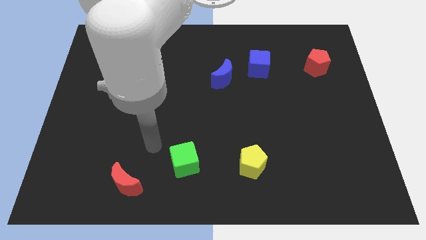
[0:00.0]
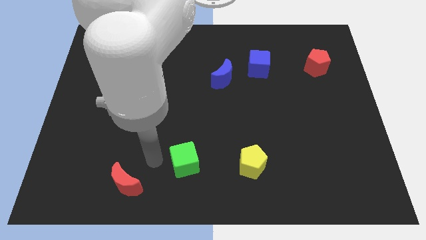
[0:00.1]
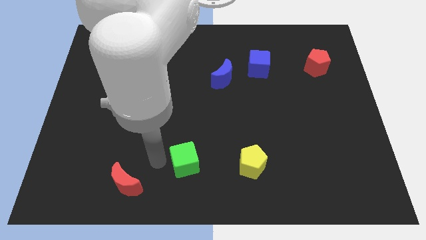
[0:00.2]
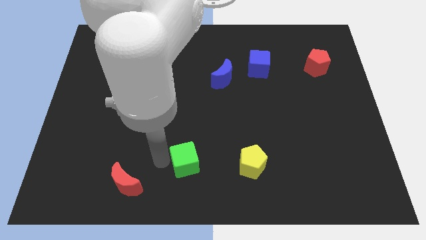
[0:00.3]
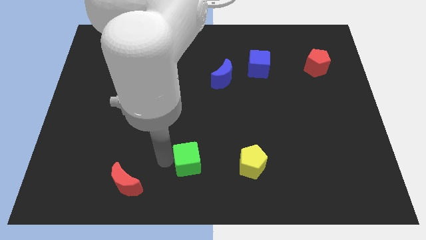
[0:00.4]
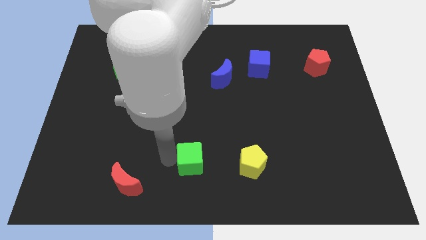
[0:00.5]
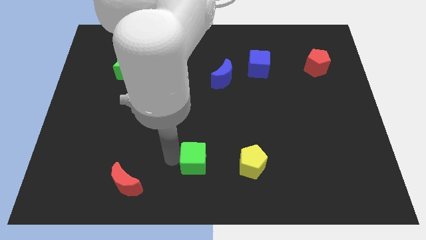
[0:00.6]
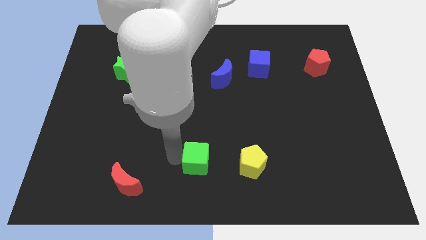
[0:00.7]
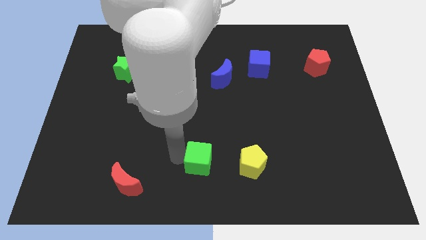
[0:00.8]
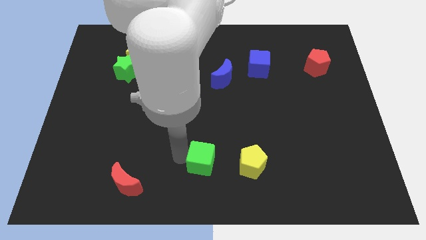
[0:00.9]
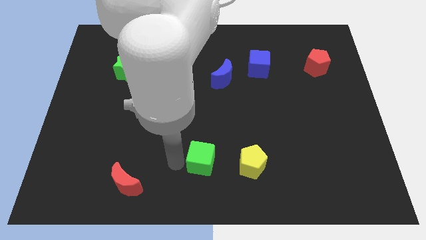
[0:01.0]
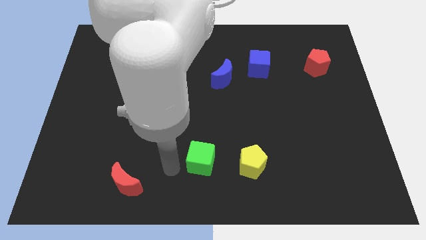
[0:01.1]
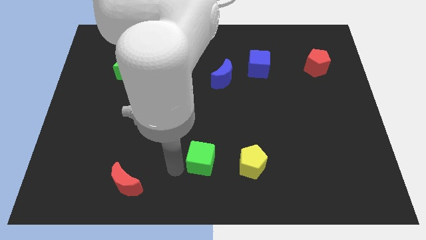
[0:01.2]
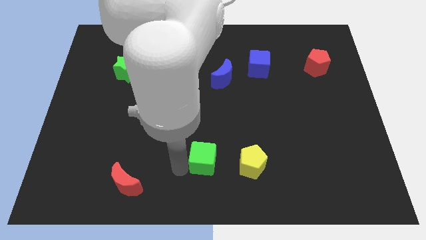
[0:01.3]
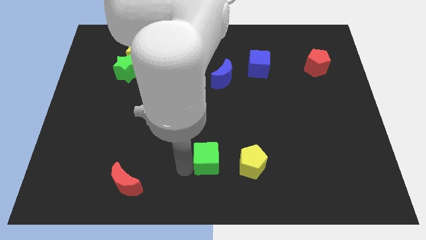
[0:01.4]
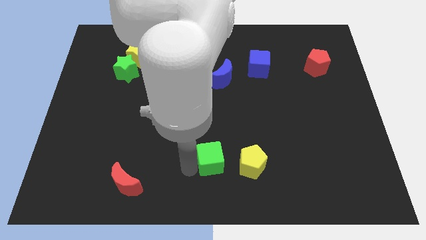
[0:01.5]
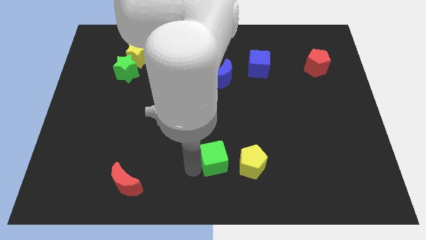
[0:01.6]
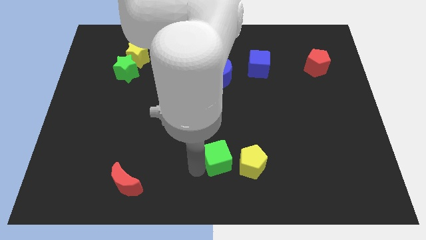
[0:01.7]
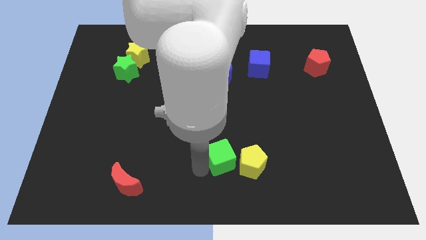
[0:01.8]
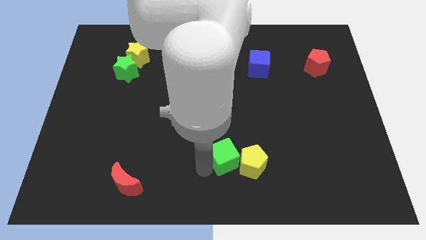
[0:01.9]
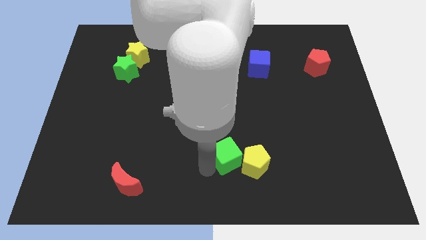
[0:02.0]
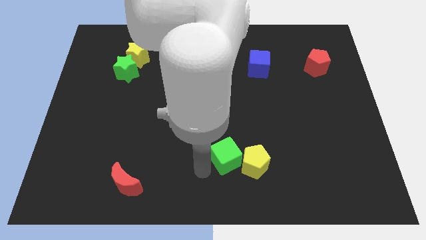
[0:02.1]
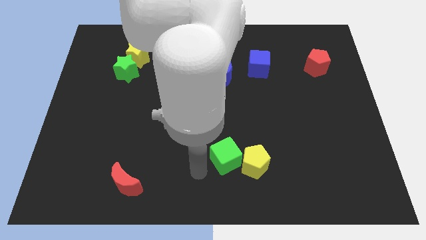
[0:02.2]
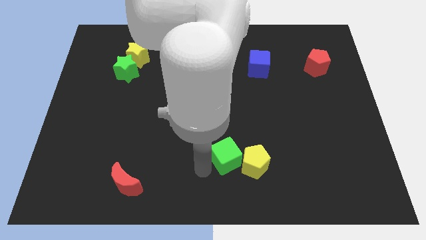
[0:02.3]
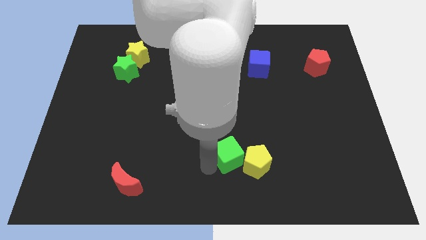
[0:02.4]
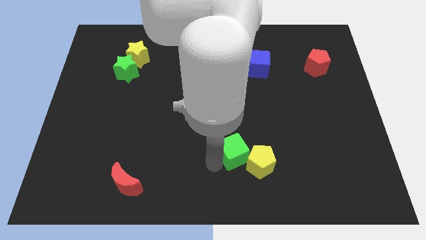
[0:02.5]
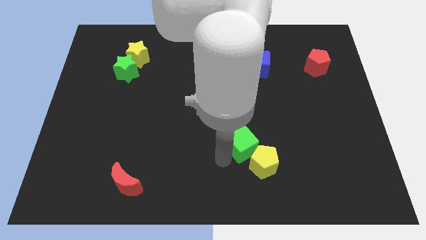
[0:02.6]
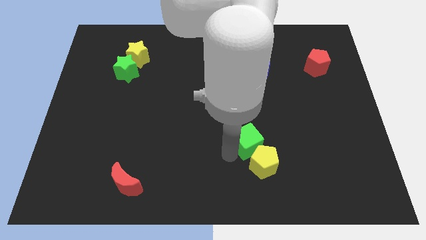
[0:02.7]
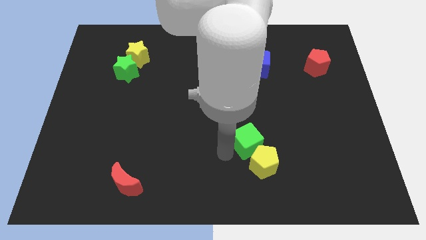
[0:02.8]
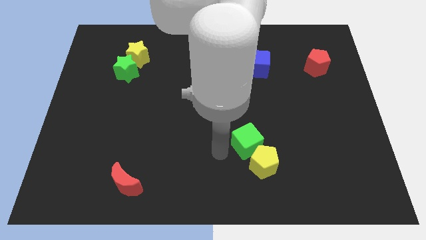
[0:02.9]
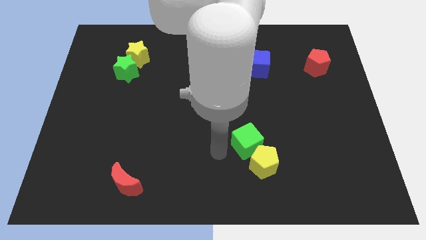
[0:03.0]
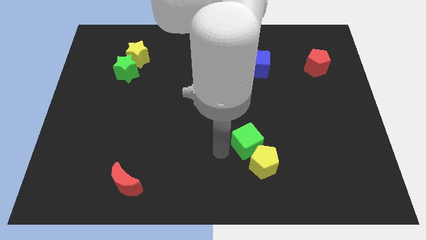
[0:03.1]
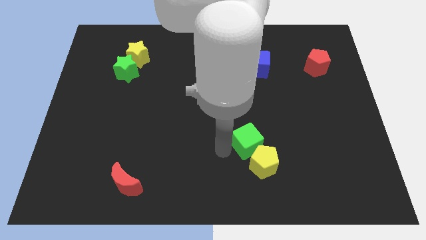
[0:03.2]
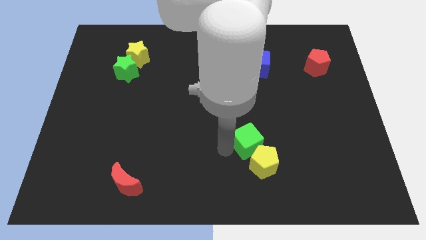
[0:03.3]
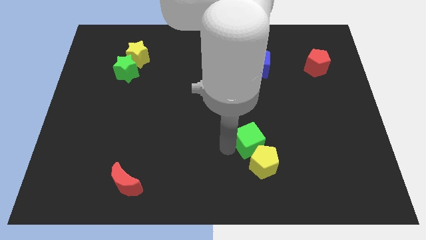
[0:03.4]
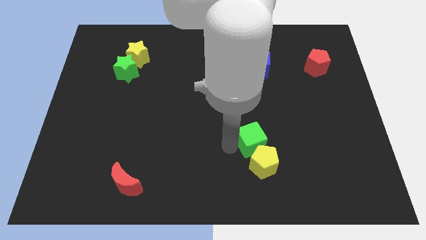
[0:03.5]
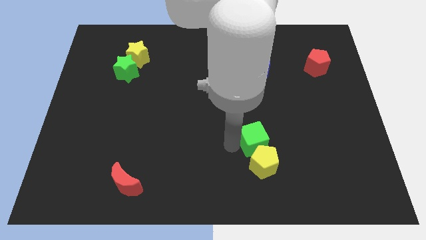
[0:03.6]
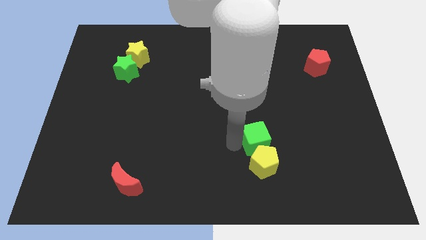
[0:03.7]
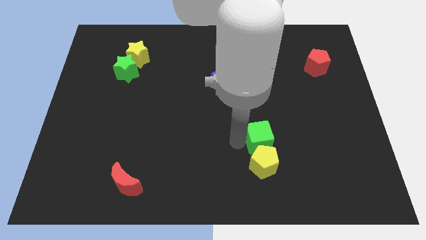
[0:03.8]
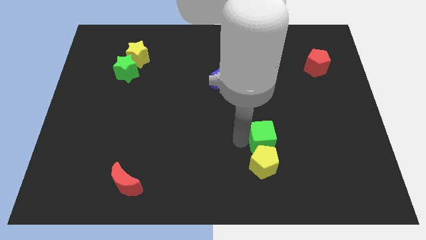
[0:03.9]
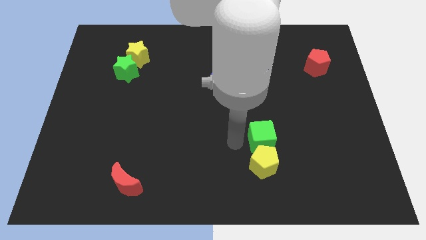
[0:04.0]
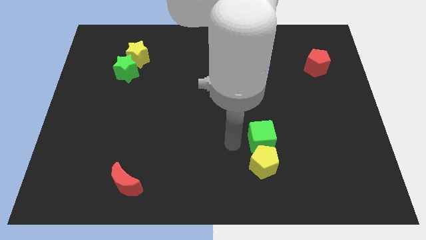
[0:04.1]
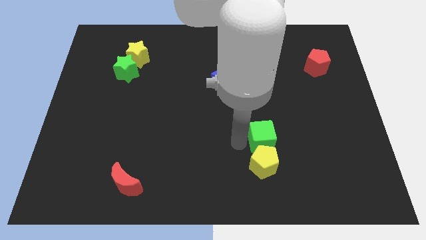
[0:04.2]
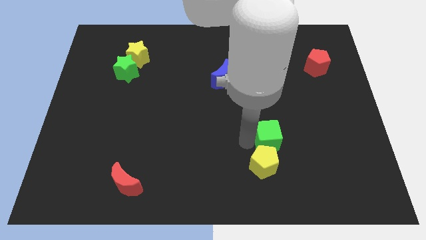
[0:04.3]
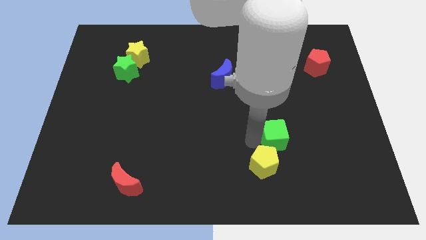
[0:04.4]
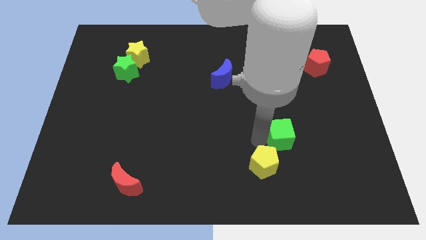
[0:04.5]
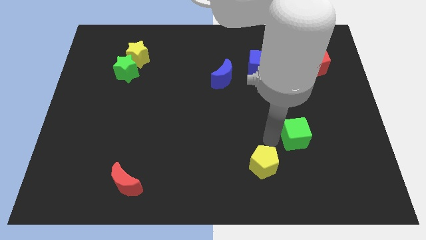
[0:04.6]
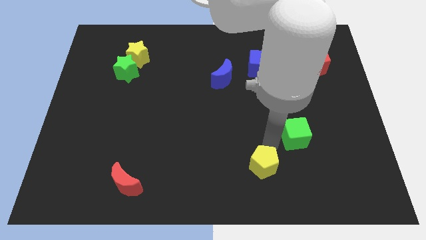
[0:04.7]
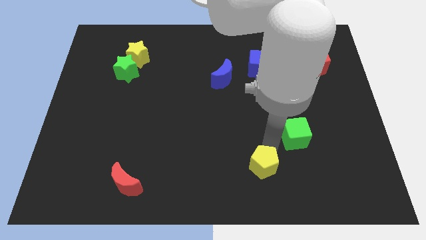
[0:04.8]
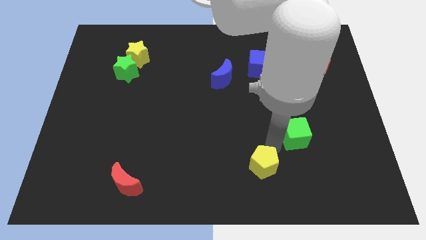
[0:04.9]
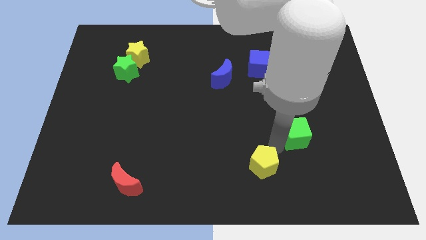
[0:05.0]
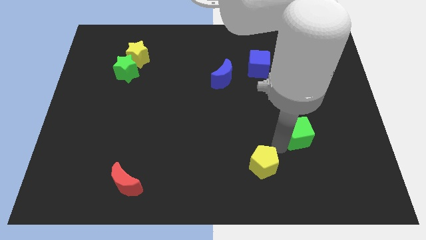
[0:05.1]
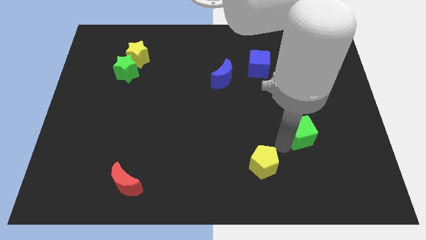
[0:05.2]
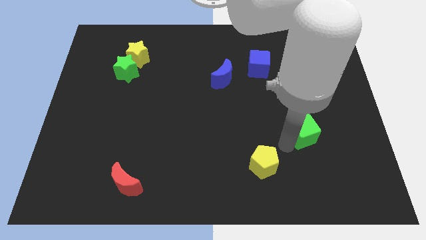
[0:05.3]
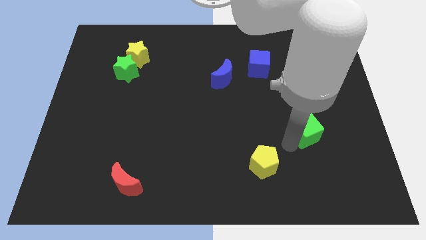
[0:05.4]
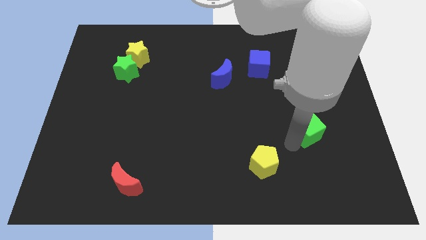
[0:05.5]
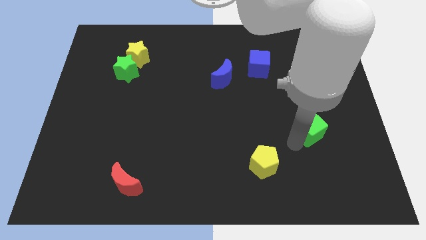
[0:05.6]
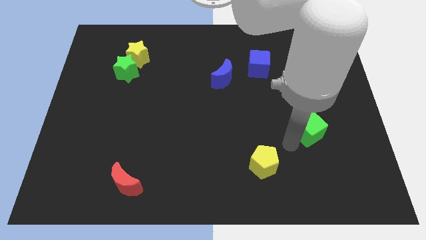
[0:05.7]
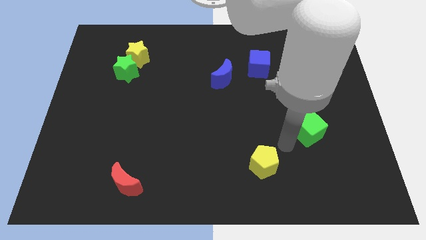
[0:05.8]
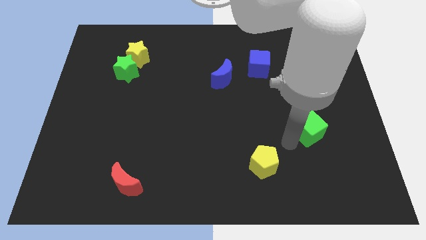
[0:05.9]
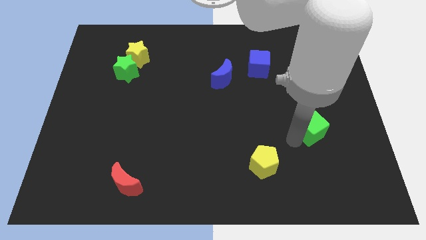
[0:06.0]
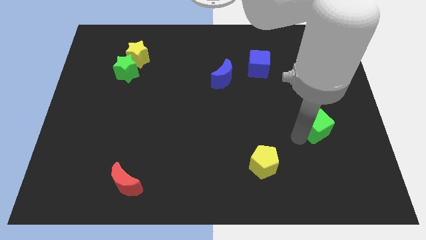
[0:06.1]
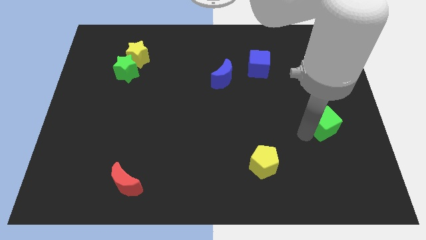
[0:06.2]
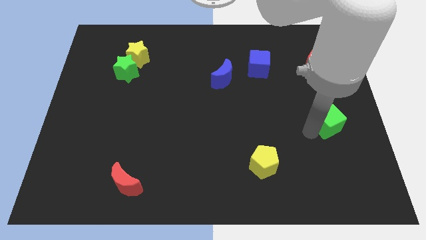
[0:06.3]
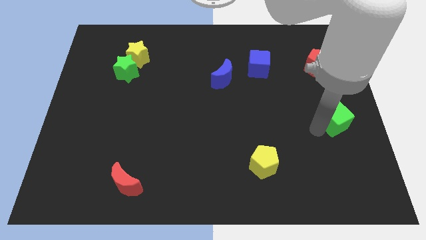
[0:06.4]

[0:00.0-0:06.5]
put the green cube to the right side of the board
